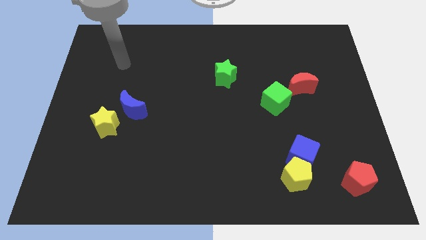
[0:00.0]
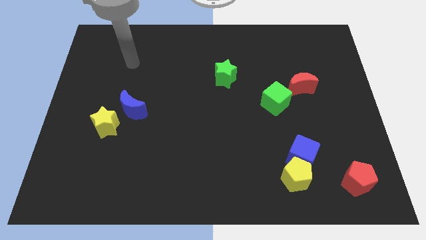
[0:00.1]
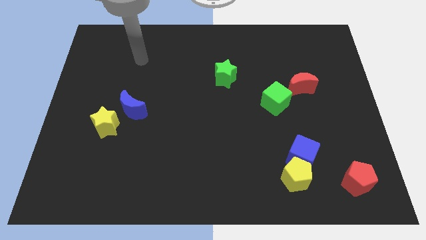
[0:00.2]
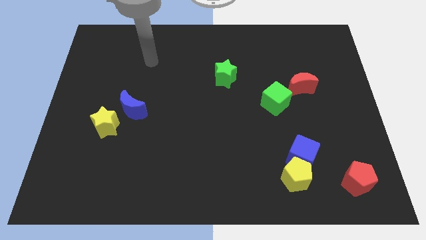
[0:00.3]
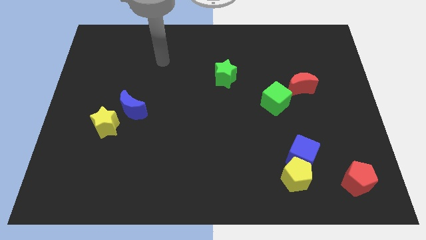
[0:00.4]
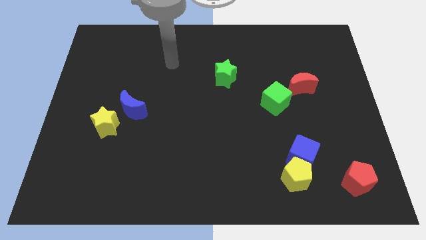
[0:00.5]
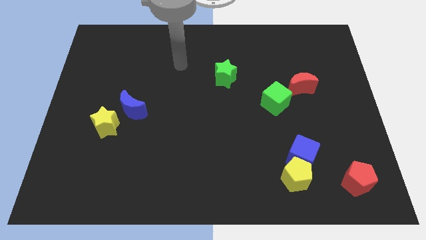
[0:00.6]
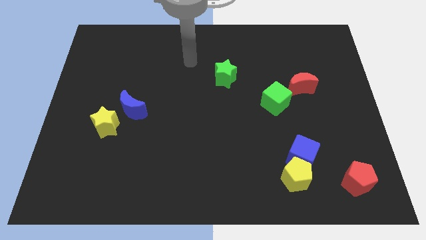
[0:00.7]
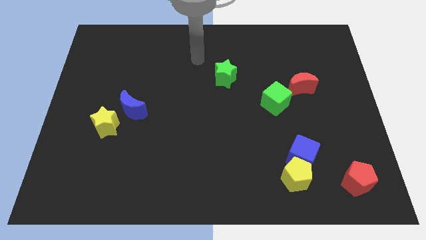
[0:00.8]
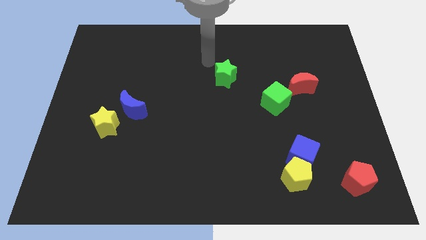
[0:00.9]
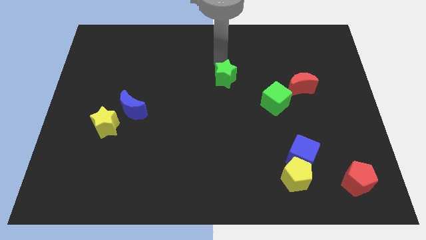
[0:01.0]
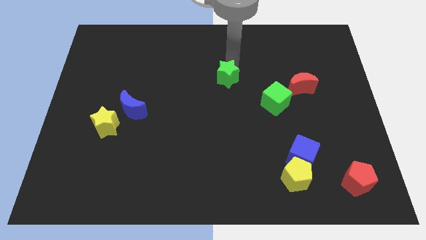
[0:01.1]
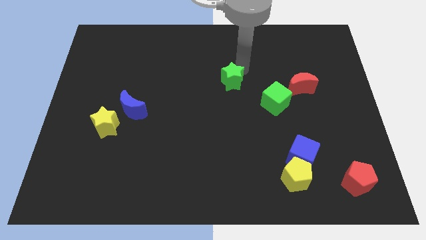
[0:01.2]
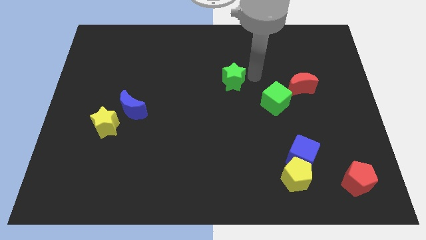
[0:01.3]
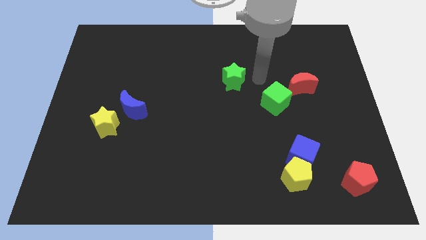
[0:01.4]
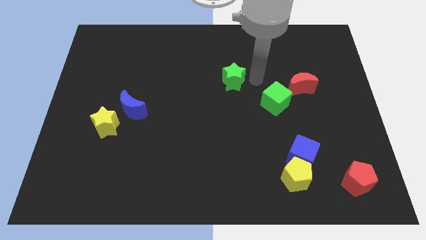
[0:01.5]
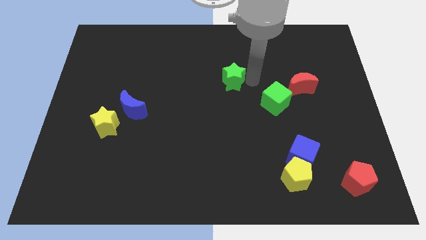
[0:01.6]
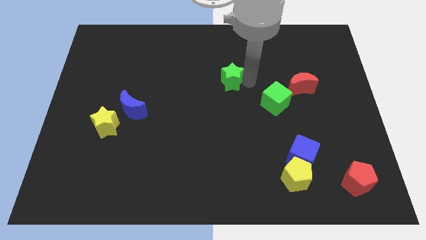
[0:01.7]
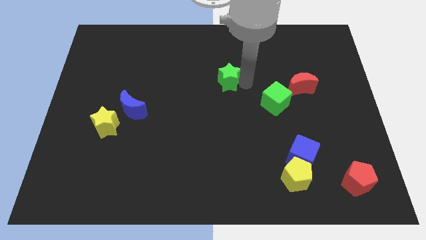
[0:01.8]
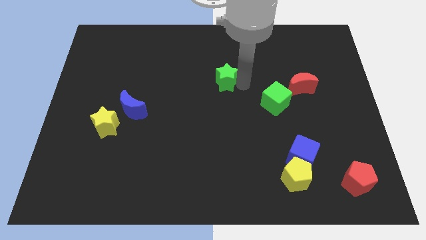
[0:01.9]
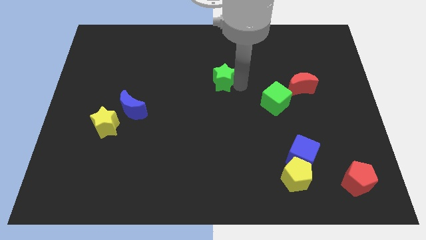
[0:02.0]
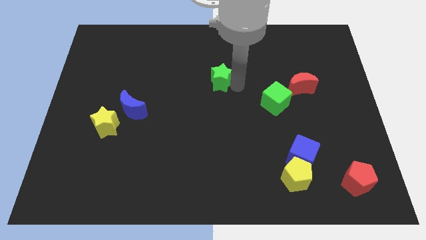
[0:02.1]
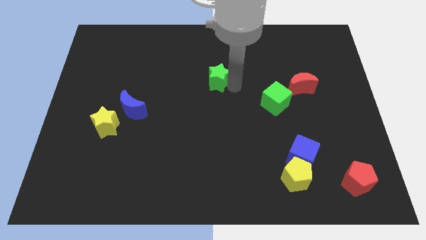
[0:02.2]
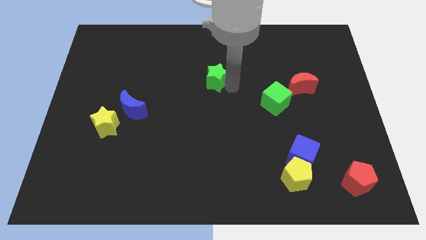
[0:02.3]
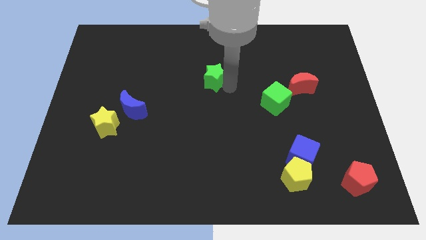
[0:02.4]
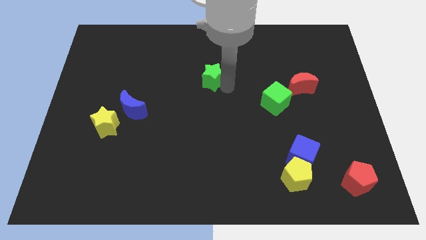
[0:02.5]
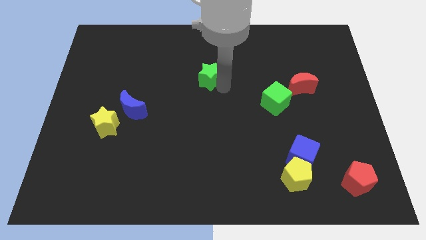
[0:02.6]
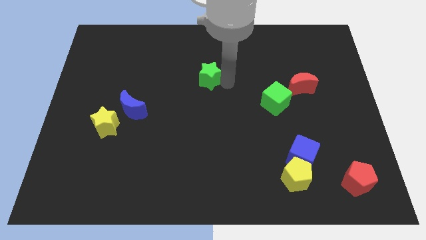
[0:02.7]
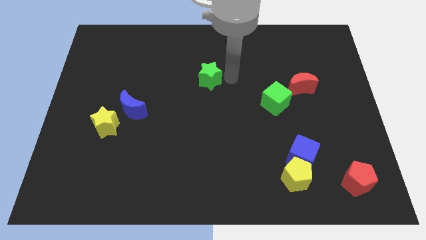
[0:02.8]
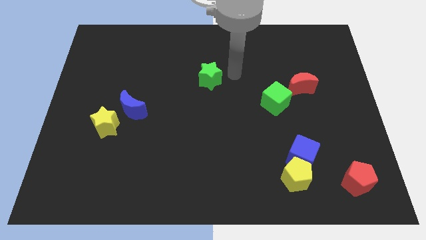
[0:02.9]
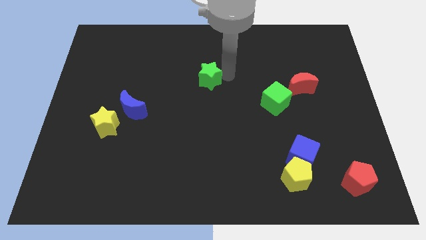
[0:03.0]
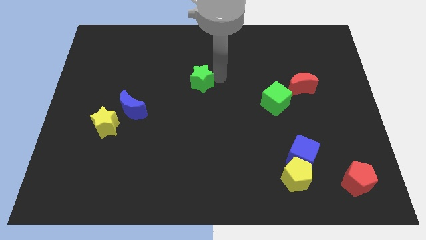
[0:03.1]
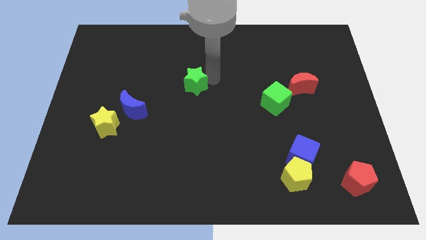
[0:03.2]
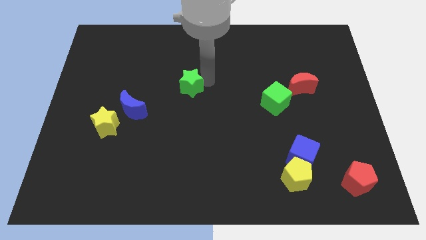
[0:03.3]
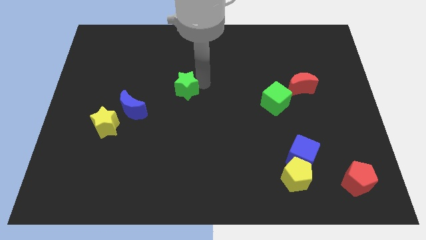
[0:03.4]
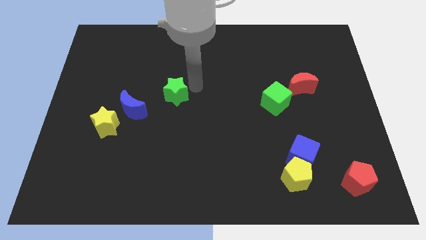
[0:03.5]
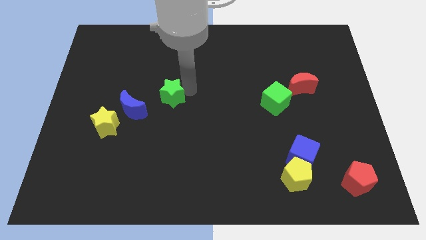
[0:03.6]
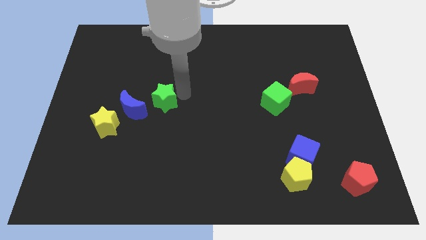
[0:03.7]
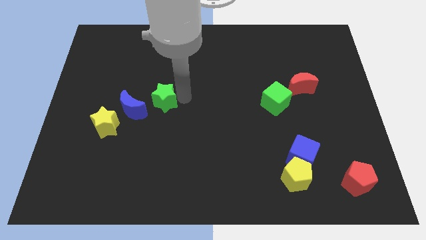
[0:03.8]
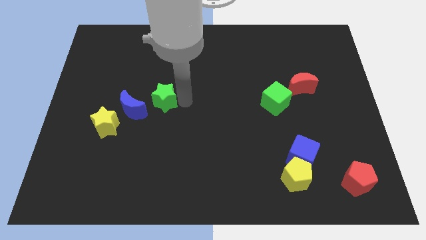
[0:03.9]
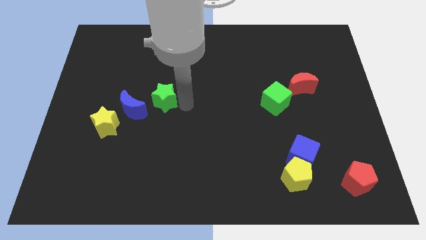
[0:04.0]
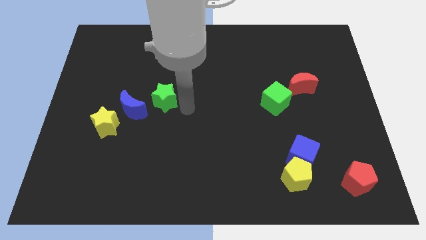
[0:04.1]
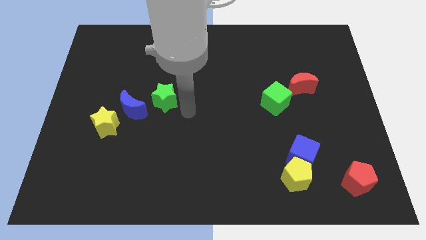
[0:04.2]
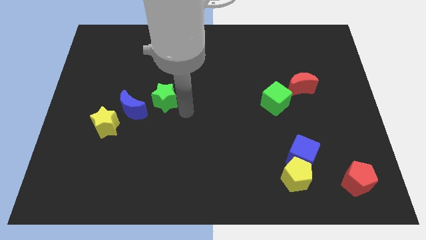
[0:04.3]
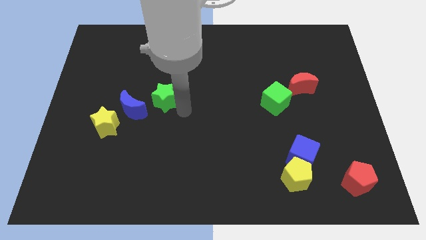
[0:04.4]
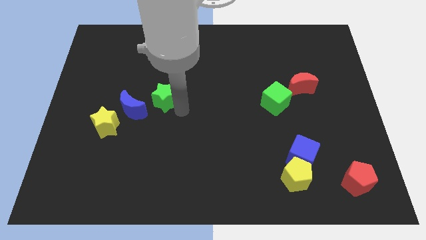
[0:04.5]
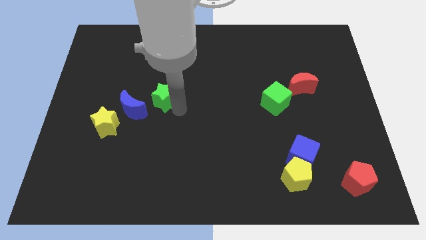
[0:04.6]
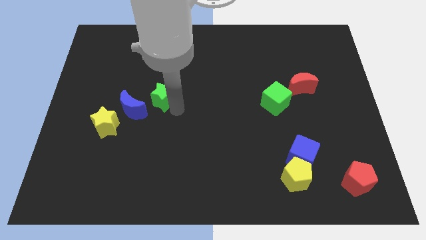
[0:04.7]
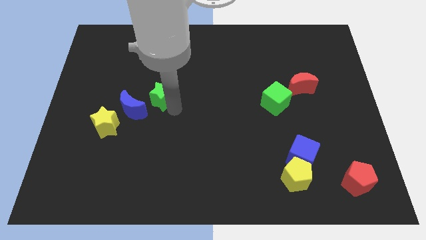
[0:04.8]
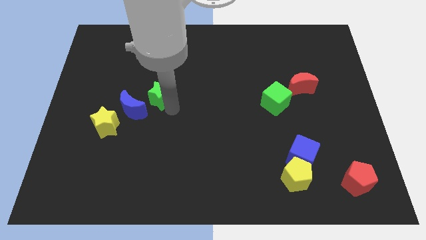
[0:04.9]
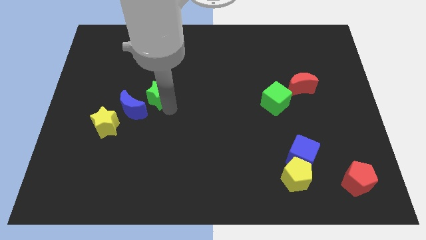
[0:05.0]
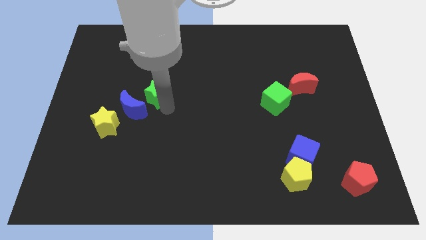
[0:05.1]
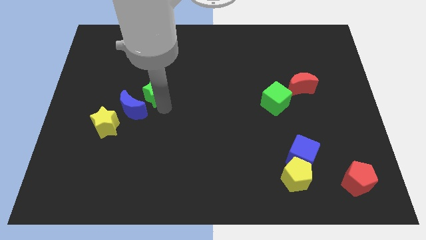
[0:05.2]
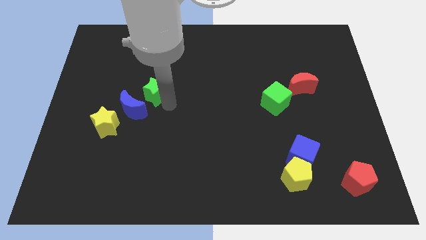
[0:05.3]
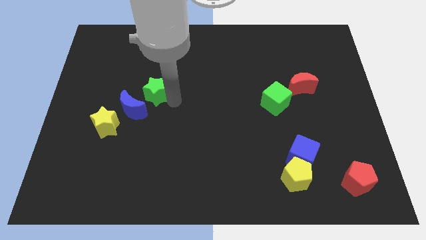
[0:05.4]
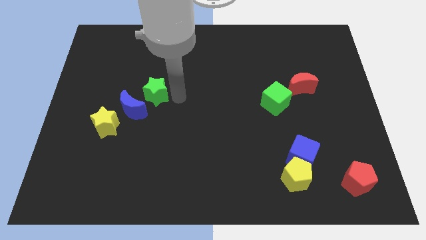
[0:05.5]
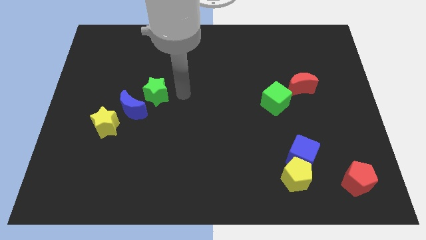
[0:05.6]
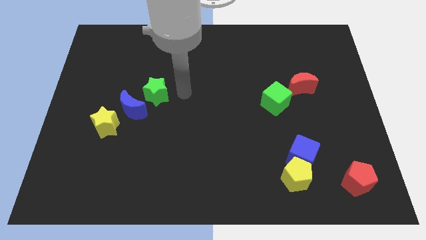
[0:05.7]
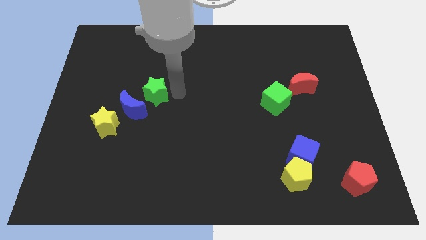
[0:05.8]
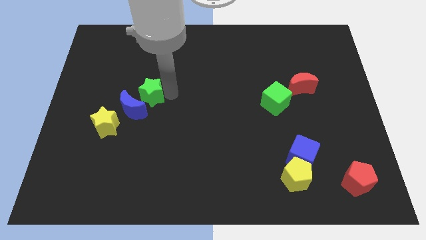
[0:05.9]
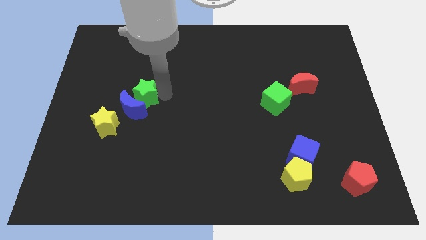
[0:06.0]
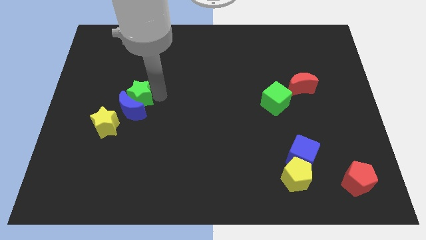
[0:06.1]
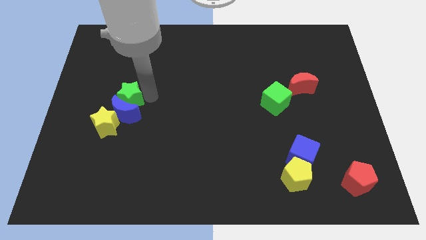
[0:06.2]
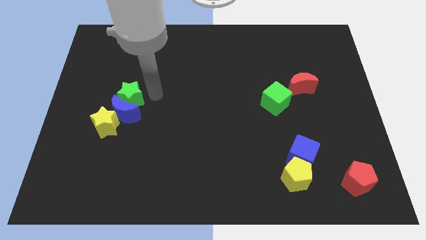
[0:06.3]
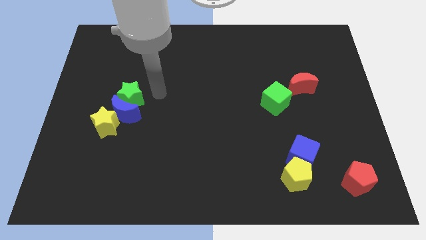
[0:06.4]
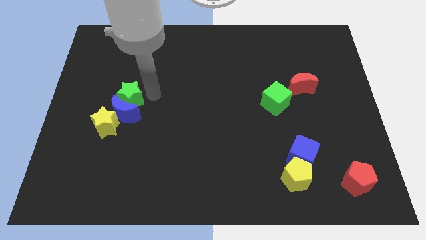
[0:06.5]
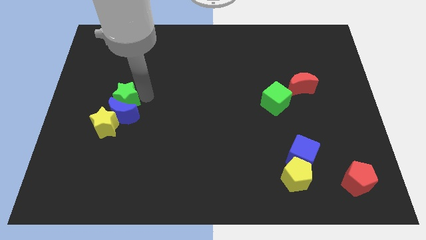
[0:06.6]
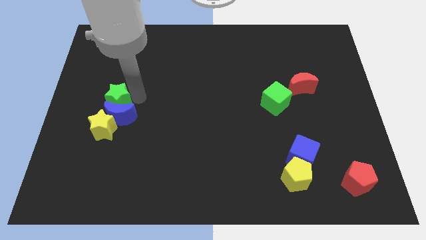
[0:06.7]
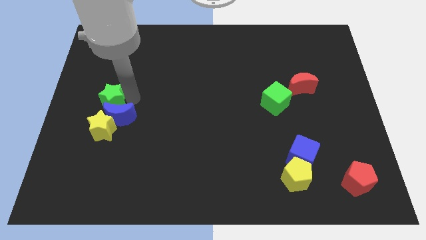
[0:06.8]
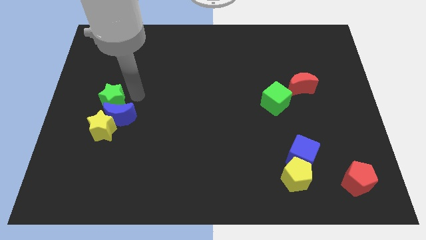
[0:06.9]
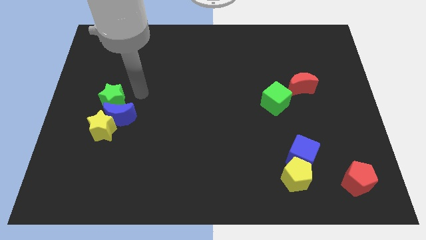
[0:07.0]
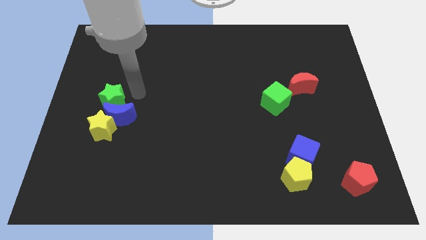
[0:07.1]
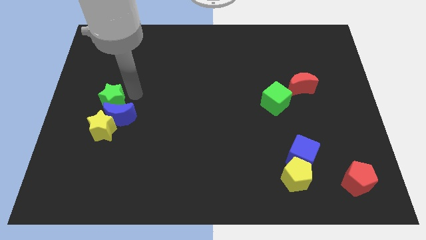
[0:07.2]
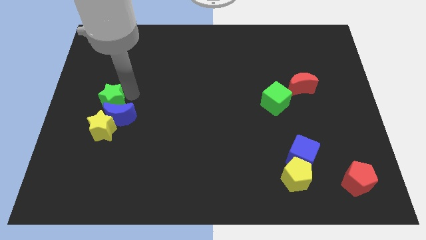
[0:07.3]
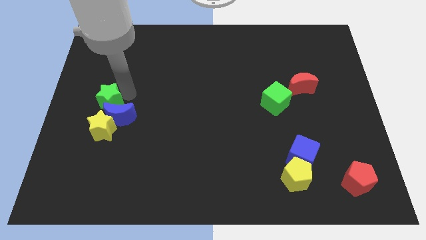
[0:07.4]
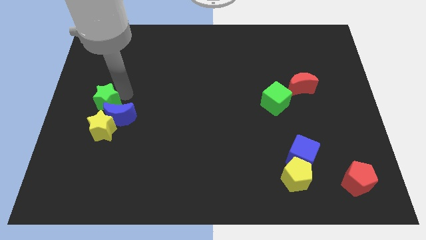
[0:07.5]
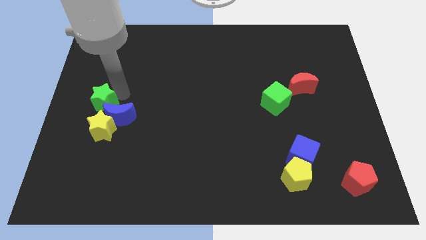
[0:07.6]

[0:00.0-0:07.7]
slide the green star to the top left side of the yellow star
